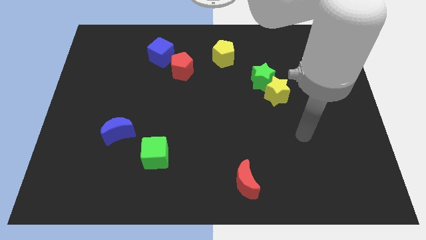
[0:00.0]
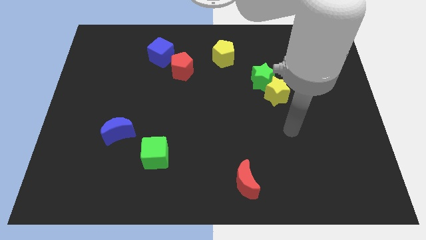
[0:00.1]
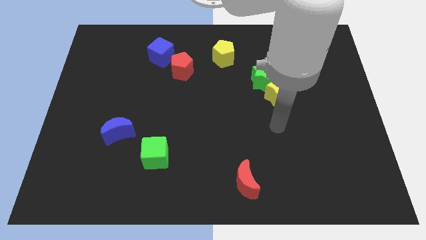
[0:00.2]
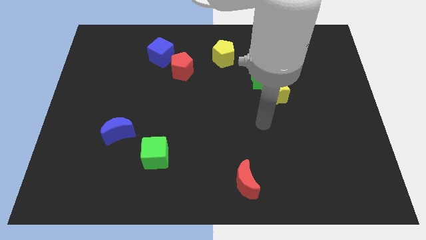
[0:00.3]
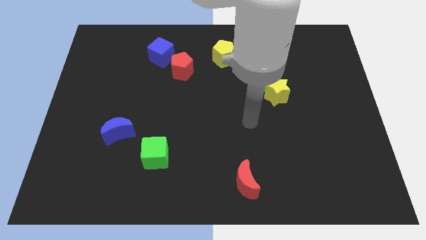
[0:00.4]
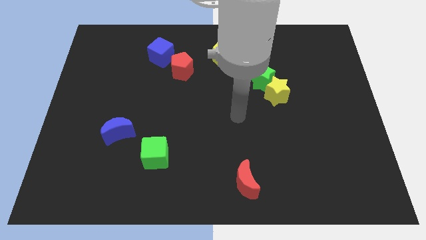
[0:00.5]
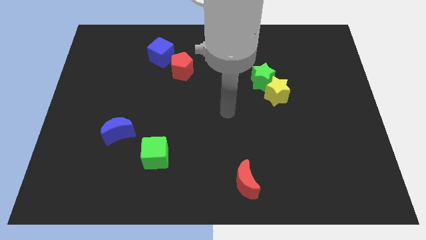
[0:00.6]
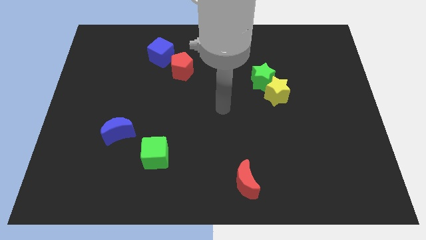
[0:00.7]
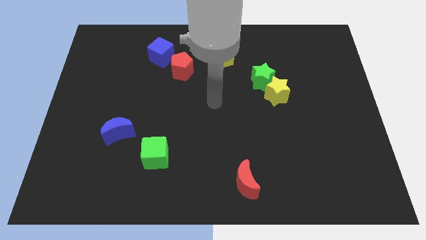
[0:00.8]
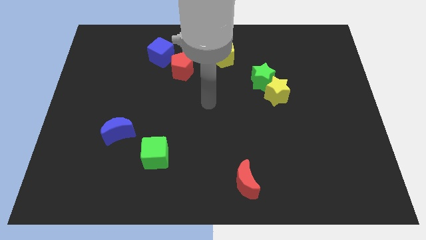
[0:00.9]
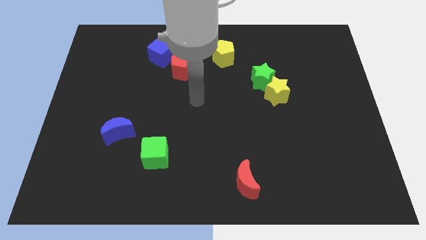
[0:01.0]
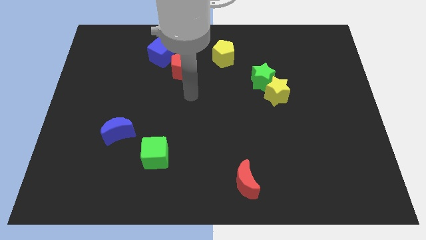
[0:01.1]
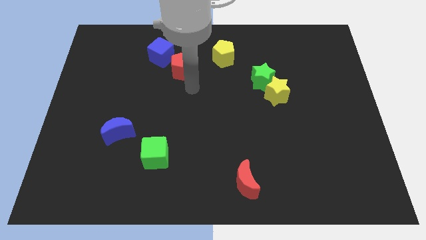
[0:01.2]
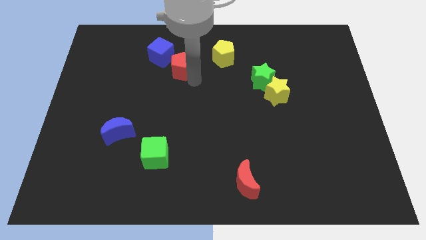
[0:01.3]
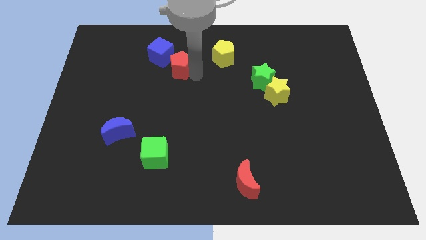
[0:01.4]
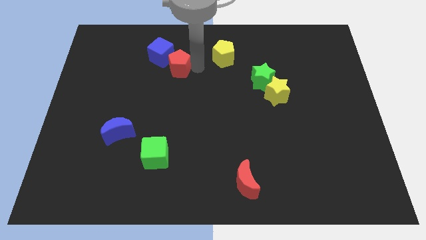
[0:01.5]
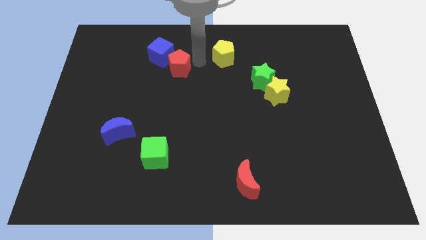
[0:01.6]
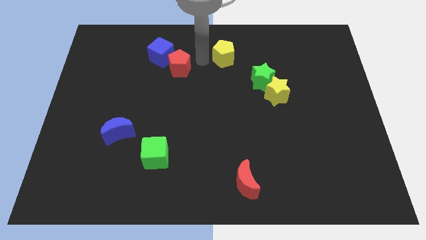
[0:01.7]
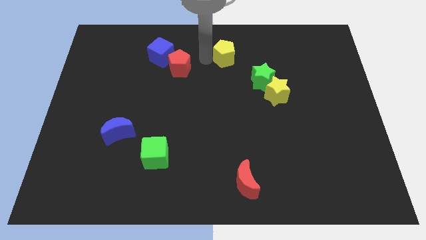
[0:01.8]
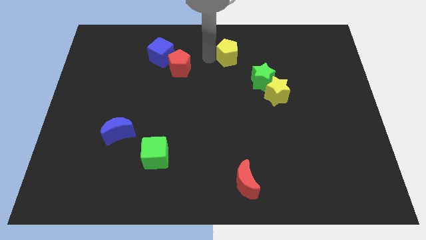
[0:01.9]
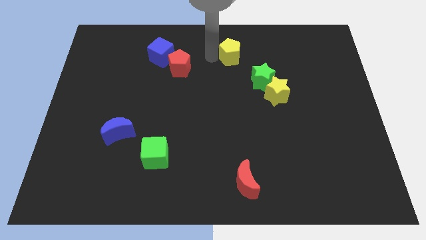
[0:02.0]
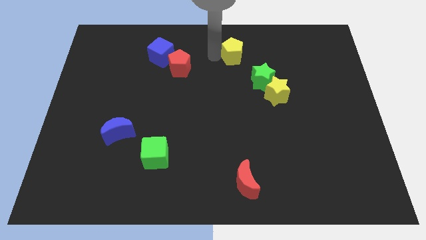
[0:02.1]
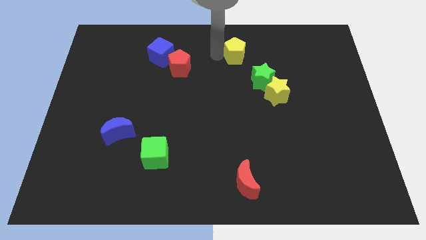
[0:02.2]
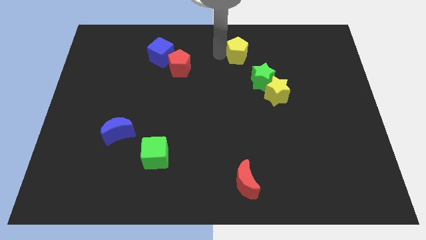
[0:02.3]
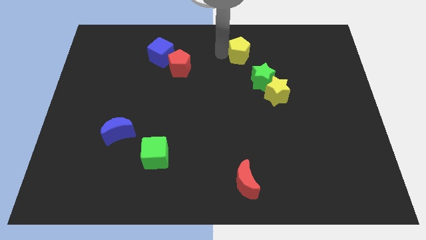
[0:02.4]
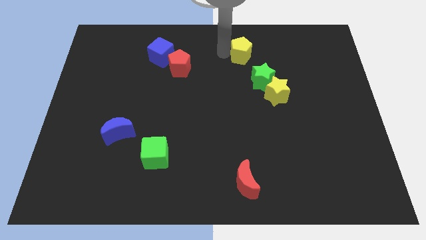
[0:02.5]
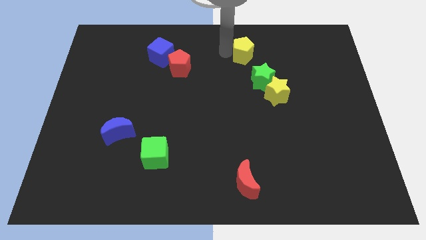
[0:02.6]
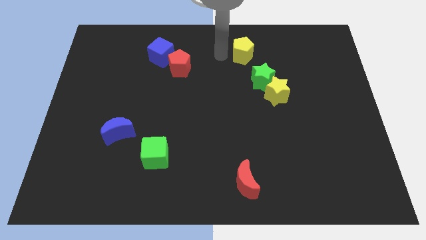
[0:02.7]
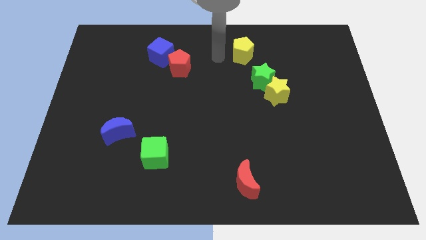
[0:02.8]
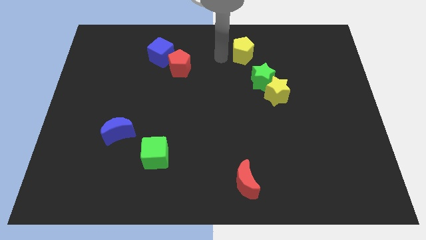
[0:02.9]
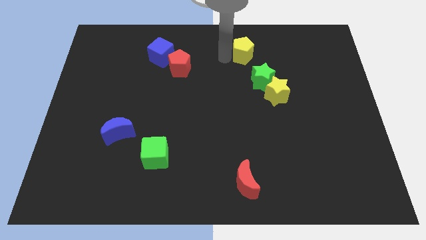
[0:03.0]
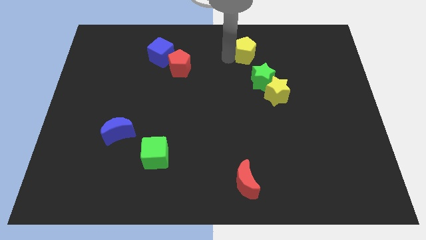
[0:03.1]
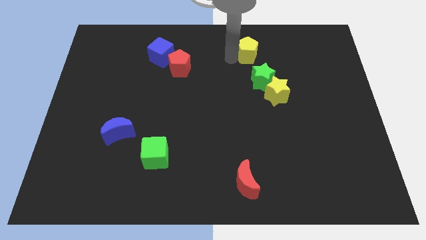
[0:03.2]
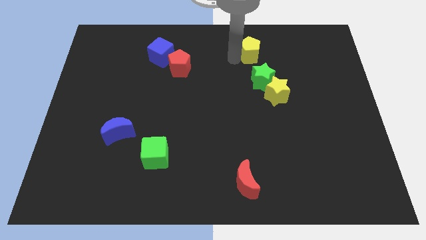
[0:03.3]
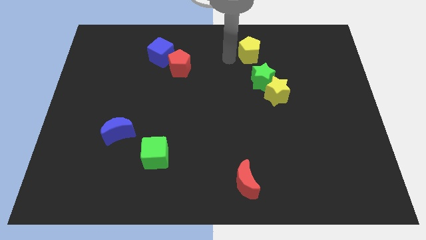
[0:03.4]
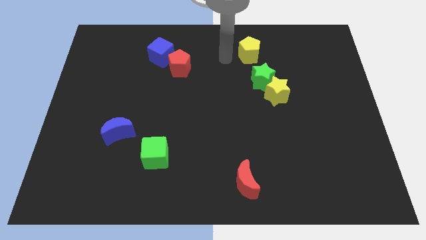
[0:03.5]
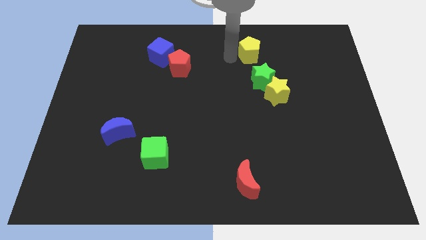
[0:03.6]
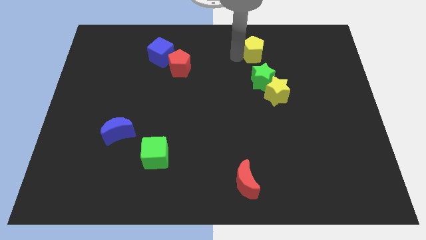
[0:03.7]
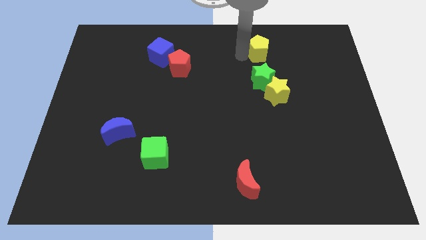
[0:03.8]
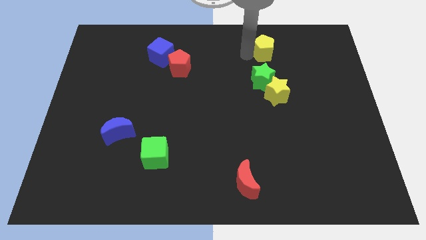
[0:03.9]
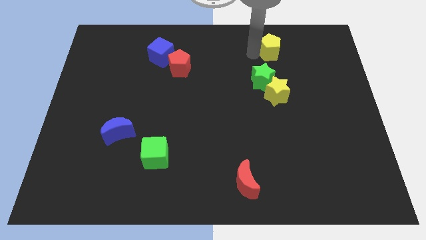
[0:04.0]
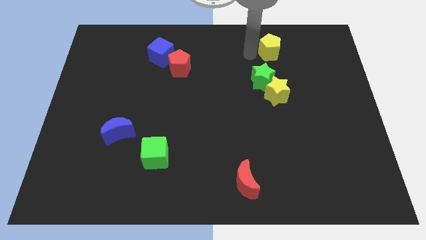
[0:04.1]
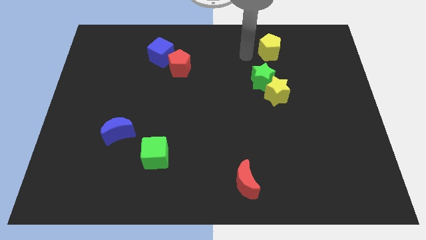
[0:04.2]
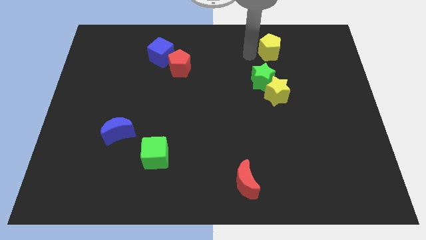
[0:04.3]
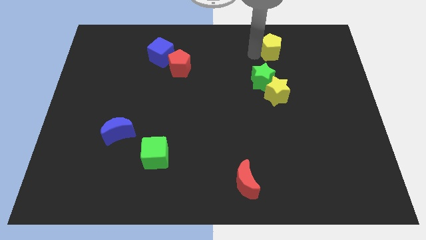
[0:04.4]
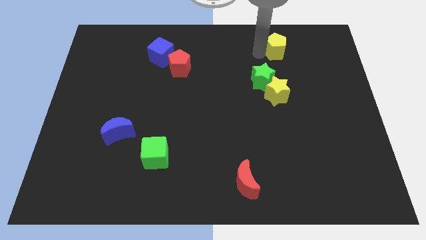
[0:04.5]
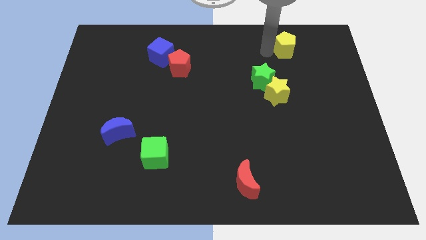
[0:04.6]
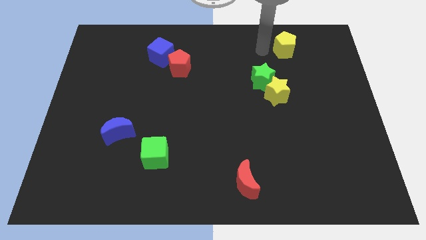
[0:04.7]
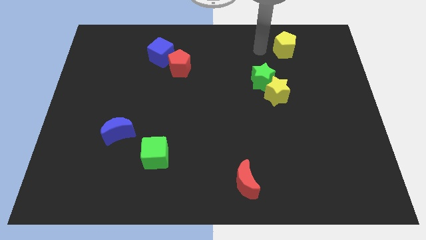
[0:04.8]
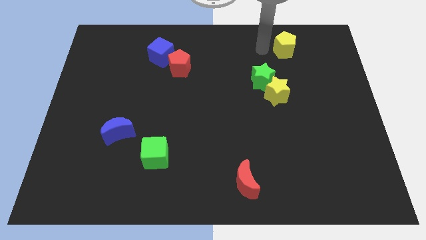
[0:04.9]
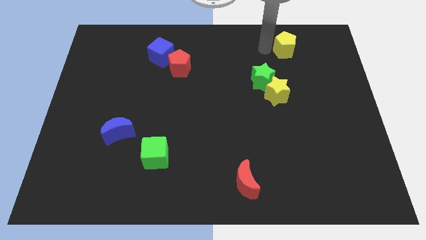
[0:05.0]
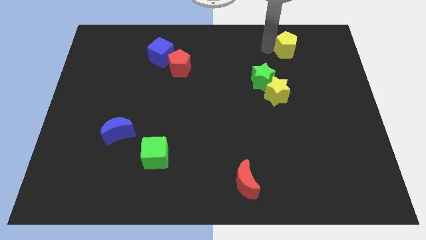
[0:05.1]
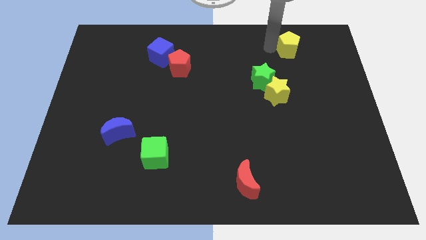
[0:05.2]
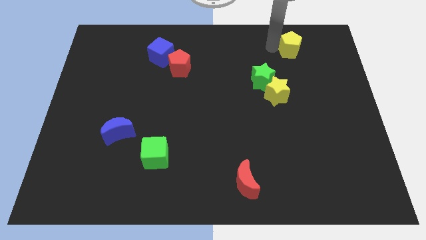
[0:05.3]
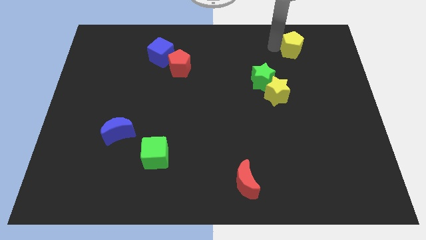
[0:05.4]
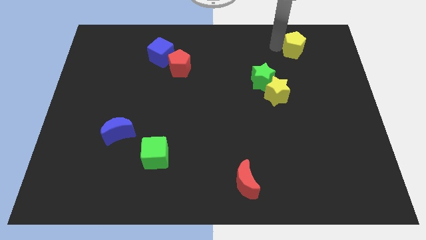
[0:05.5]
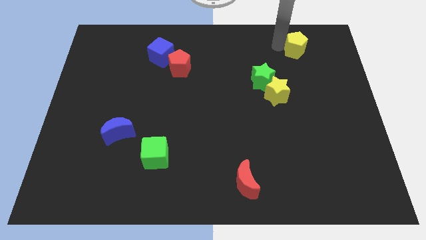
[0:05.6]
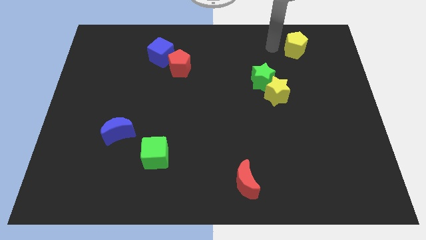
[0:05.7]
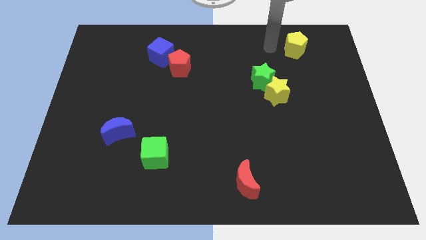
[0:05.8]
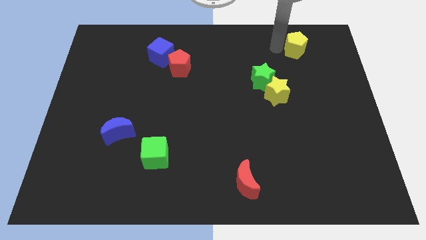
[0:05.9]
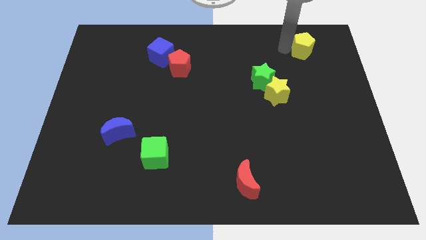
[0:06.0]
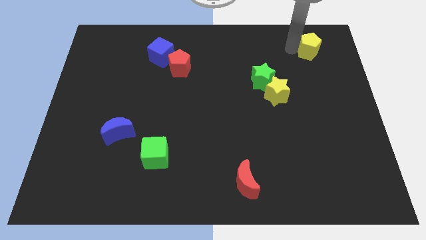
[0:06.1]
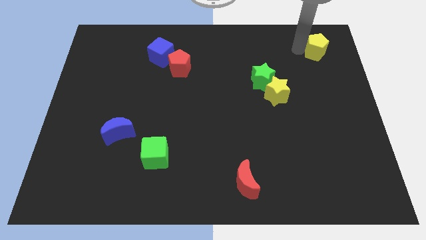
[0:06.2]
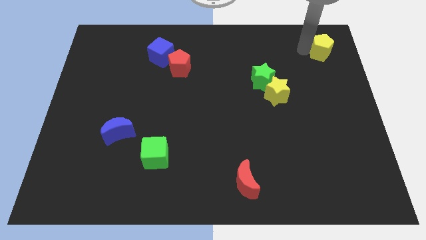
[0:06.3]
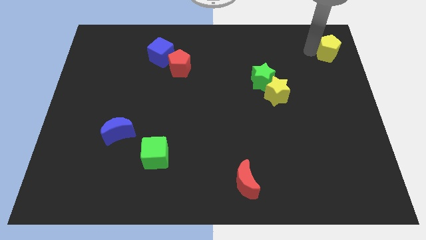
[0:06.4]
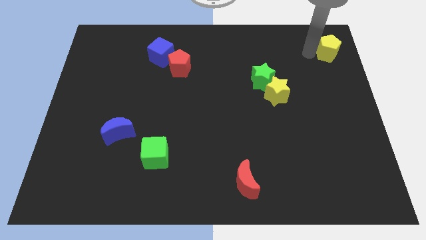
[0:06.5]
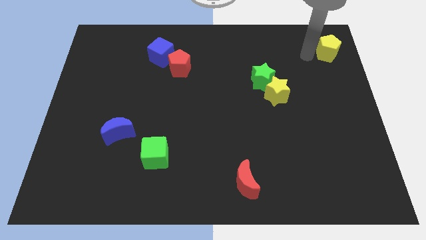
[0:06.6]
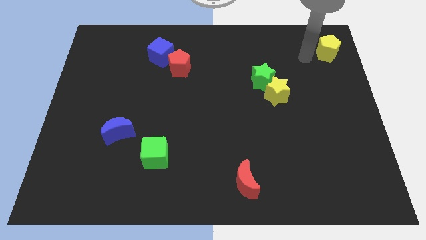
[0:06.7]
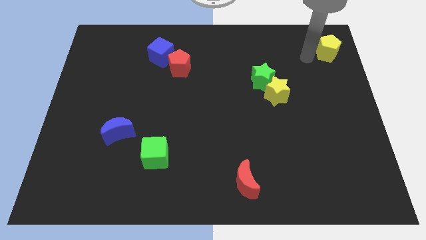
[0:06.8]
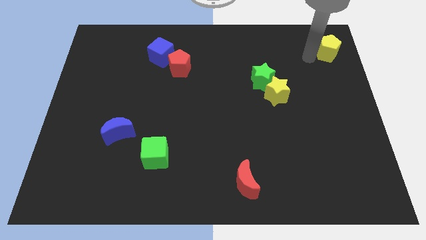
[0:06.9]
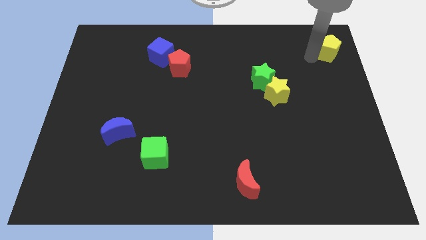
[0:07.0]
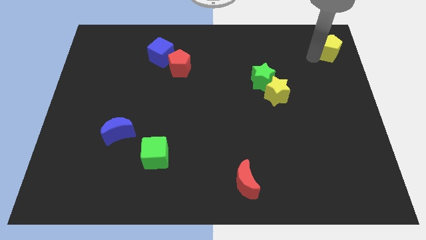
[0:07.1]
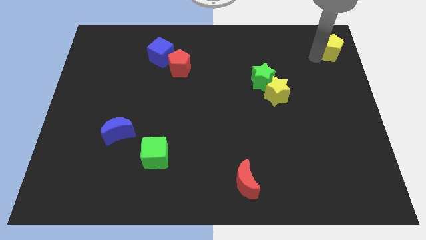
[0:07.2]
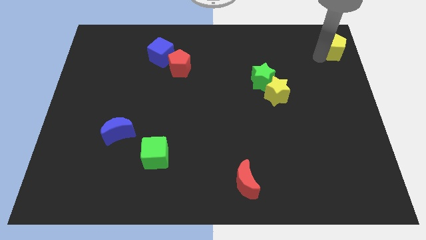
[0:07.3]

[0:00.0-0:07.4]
put the yellow pentagon to the top right
